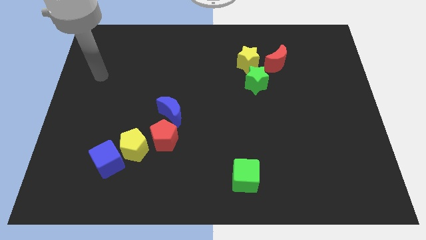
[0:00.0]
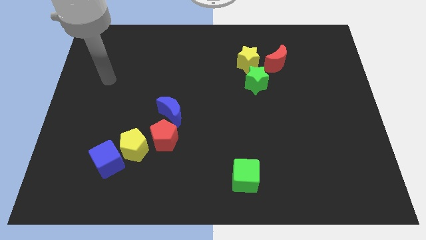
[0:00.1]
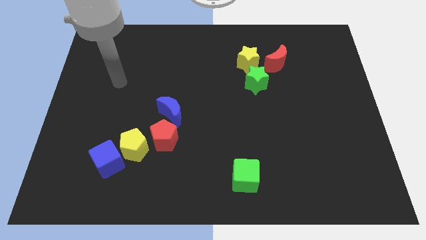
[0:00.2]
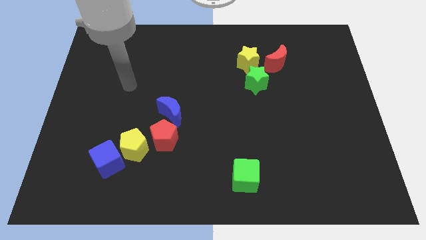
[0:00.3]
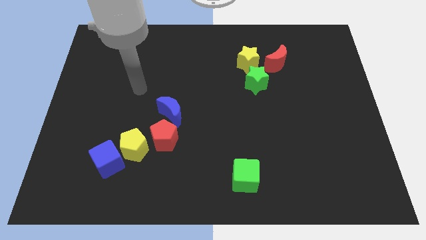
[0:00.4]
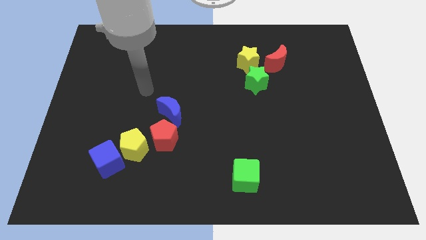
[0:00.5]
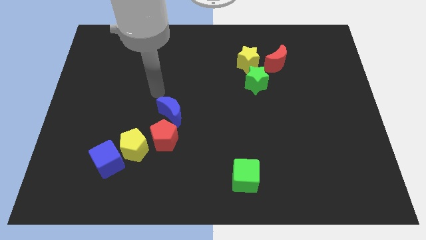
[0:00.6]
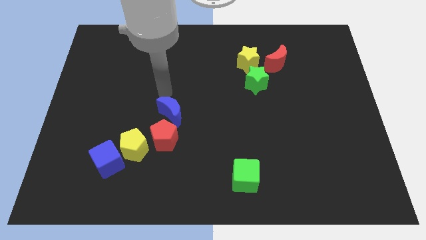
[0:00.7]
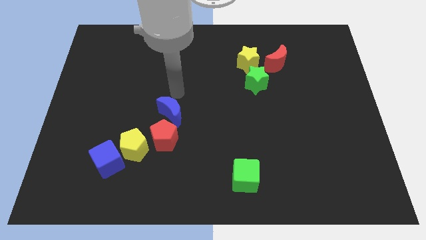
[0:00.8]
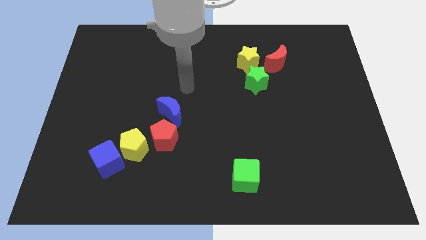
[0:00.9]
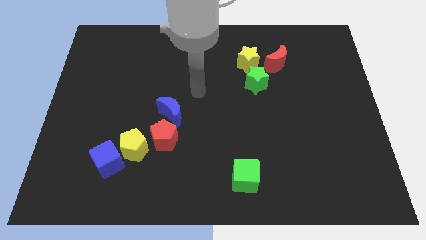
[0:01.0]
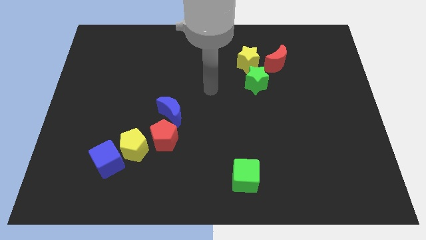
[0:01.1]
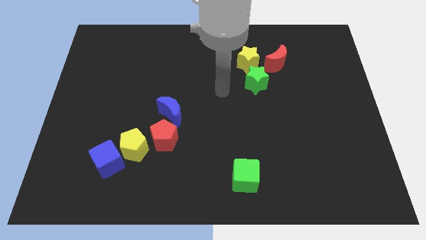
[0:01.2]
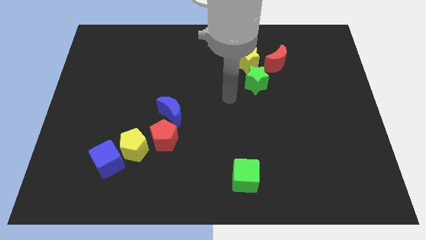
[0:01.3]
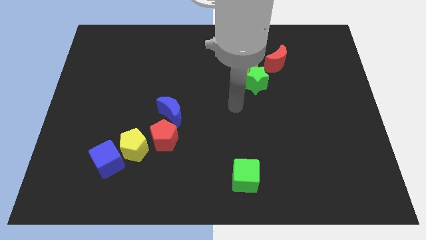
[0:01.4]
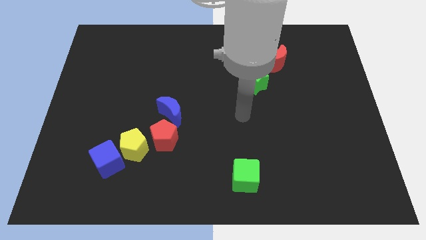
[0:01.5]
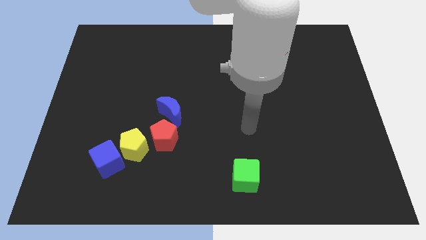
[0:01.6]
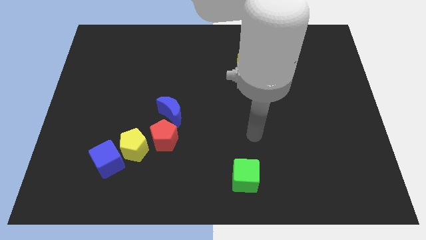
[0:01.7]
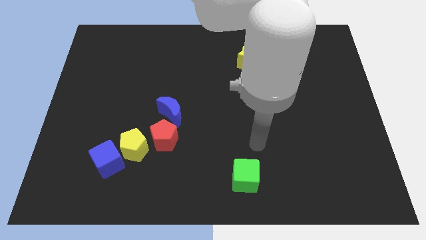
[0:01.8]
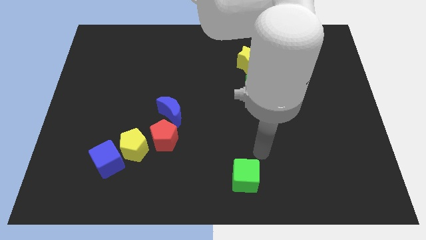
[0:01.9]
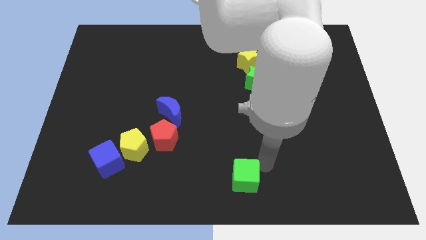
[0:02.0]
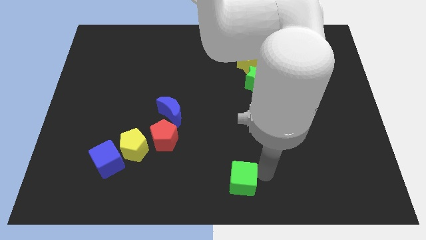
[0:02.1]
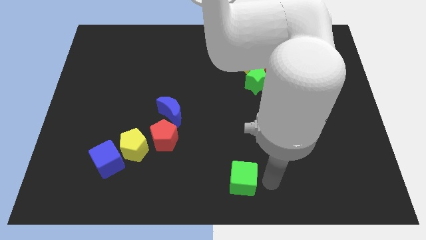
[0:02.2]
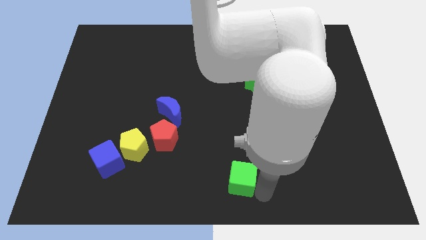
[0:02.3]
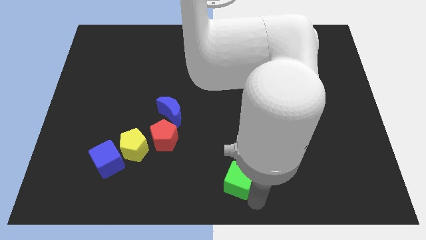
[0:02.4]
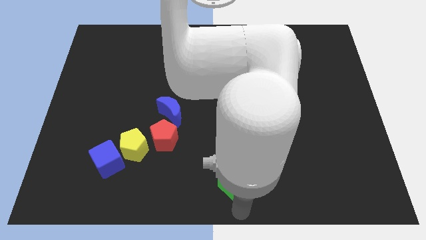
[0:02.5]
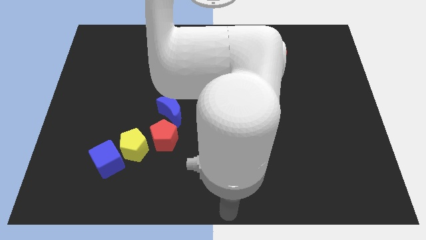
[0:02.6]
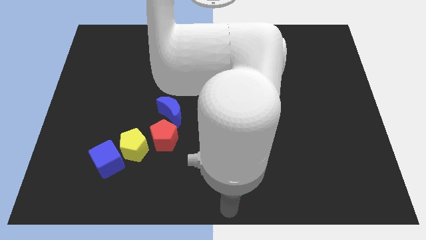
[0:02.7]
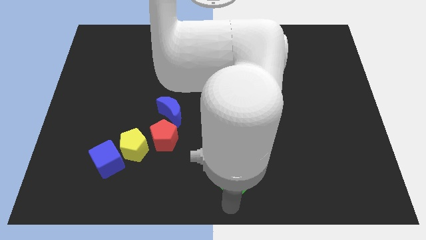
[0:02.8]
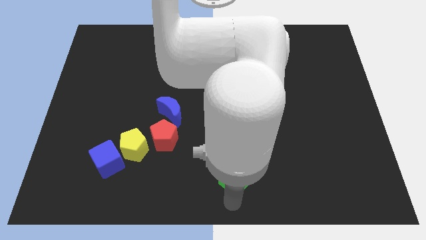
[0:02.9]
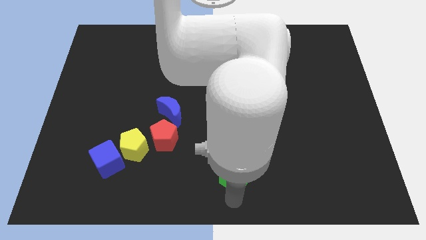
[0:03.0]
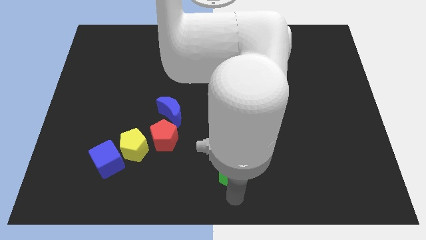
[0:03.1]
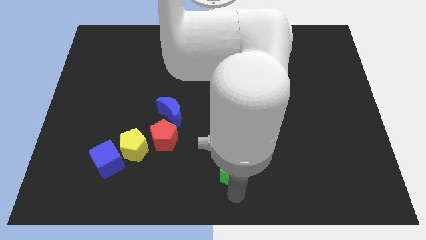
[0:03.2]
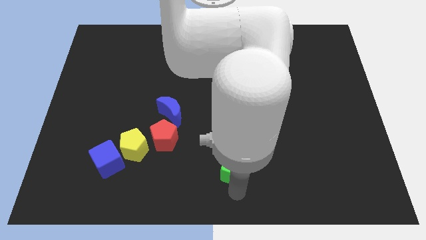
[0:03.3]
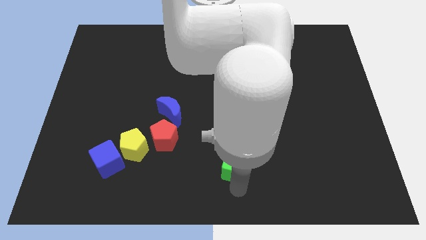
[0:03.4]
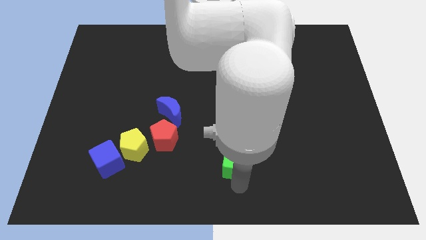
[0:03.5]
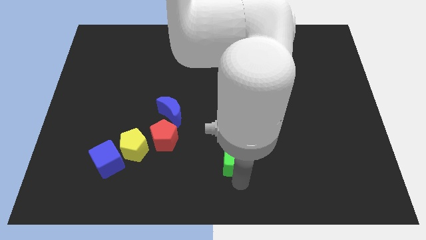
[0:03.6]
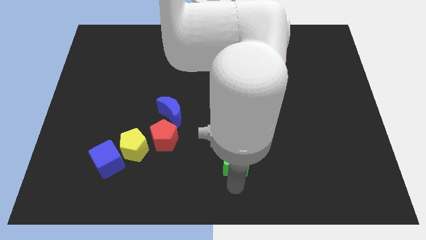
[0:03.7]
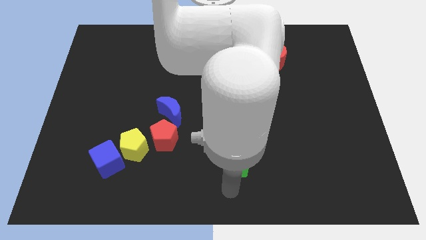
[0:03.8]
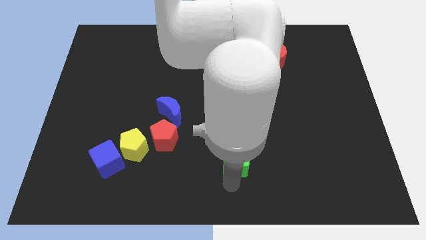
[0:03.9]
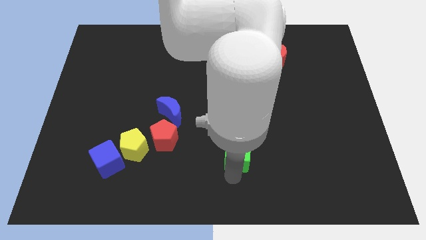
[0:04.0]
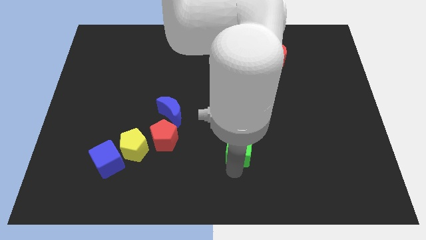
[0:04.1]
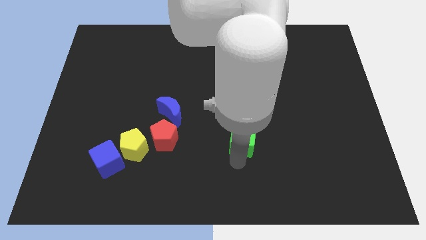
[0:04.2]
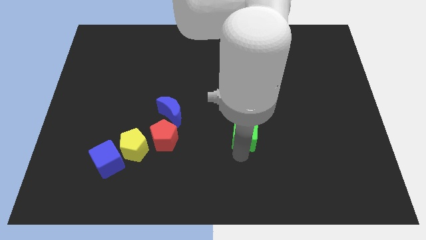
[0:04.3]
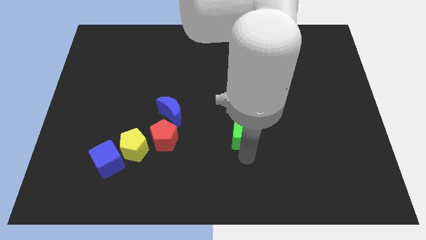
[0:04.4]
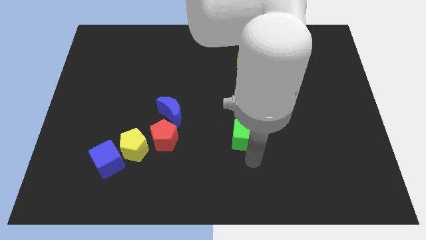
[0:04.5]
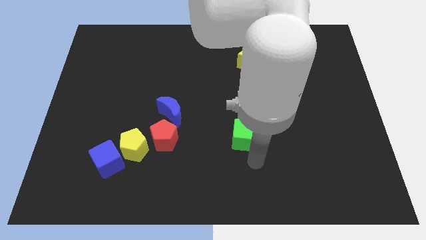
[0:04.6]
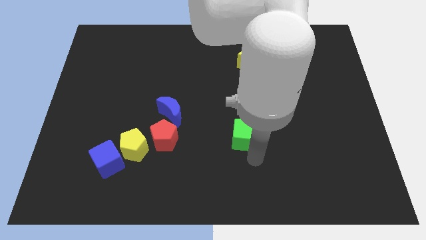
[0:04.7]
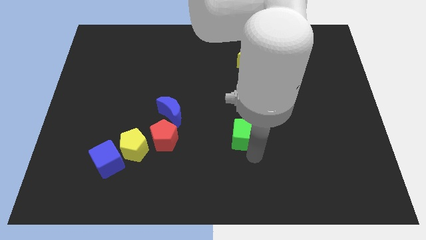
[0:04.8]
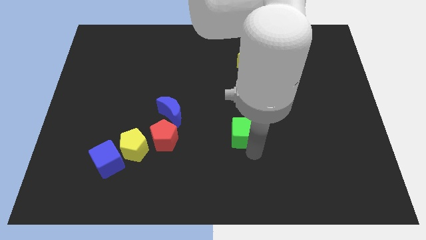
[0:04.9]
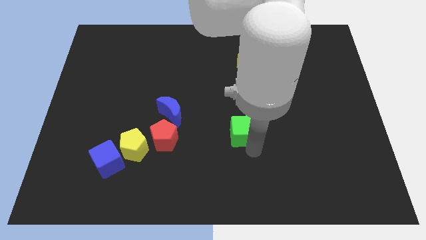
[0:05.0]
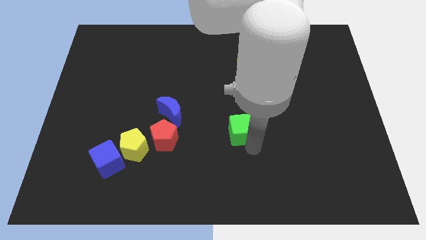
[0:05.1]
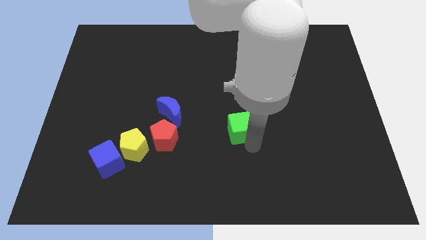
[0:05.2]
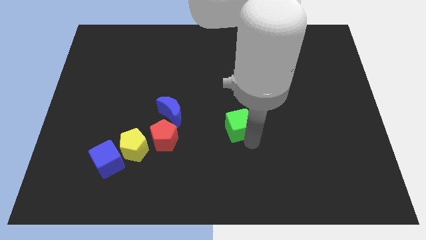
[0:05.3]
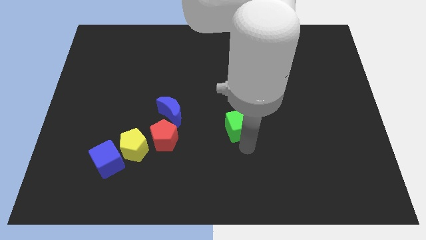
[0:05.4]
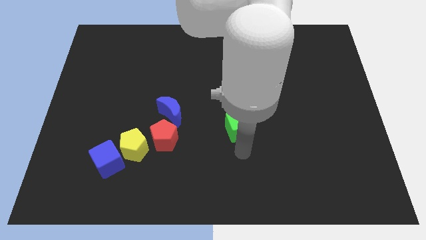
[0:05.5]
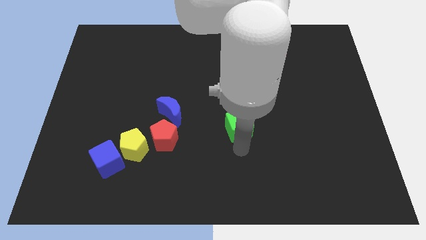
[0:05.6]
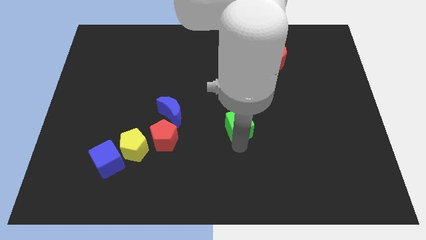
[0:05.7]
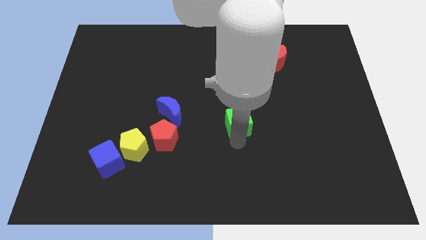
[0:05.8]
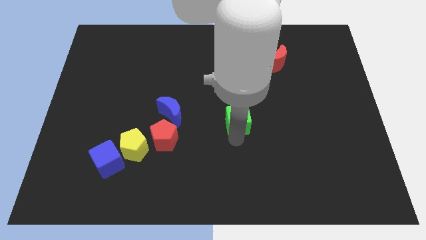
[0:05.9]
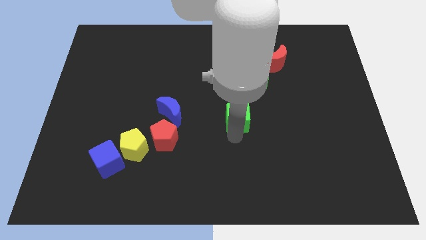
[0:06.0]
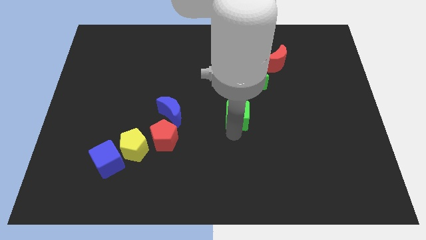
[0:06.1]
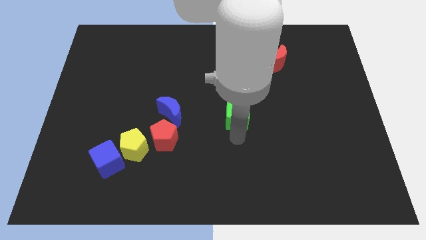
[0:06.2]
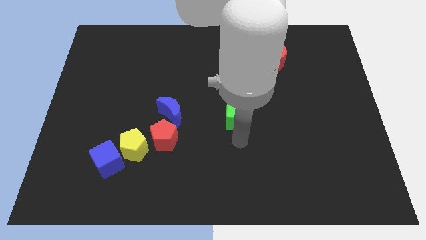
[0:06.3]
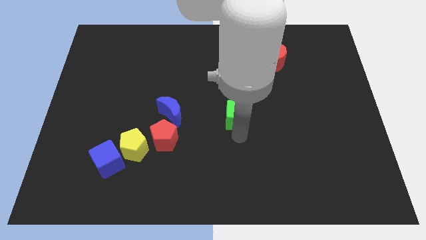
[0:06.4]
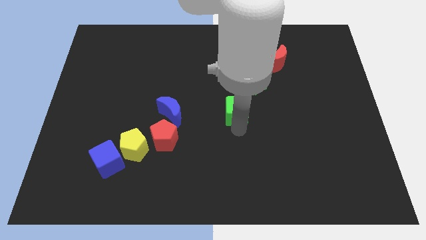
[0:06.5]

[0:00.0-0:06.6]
slide the green cube diagonally down and to the left of the green star

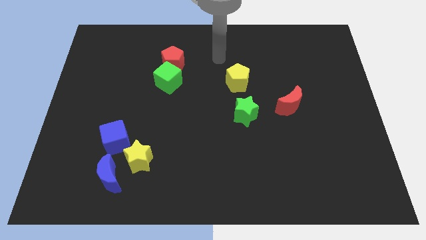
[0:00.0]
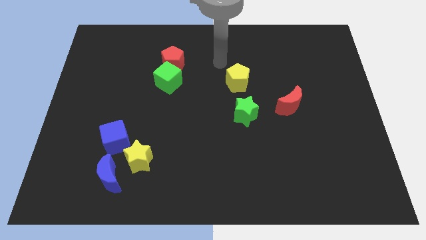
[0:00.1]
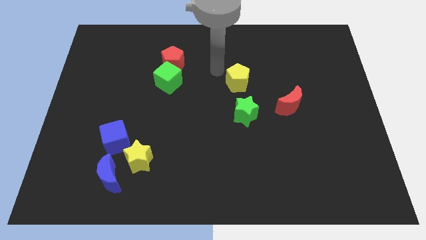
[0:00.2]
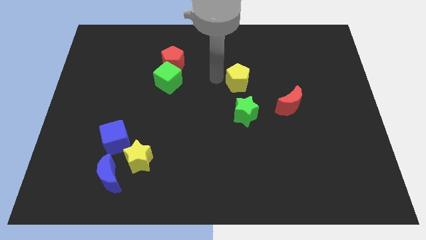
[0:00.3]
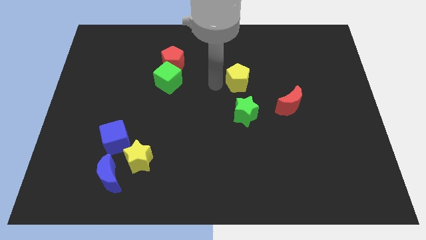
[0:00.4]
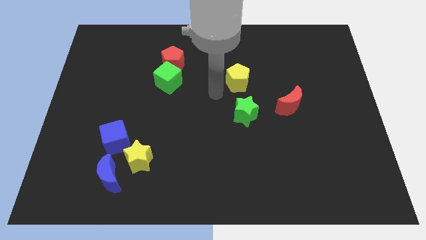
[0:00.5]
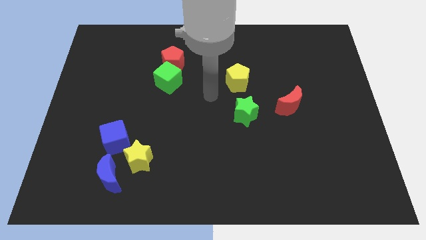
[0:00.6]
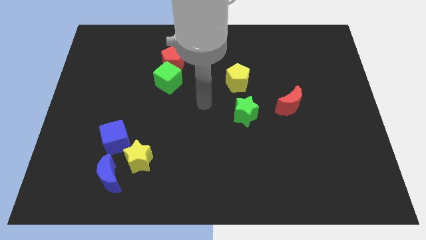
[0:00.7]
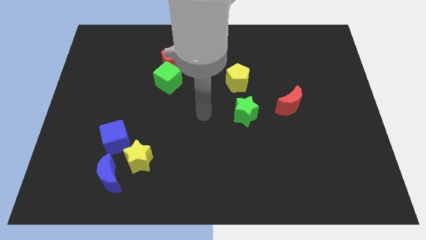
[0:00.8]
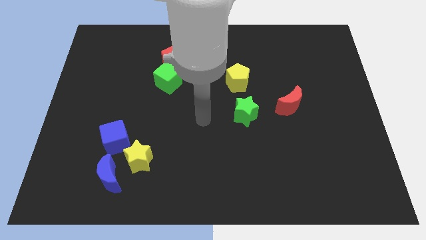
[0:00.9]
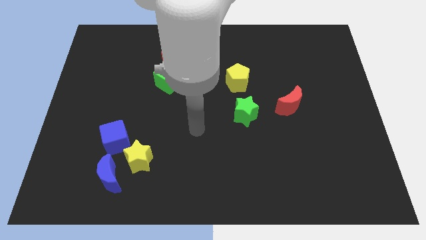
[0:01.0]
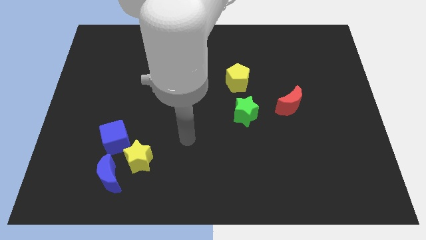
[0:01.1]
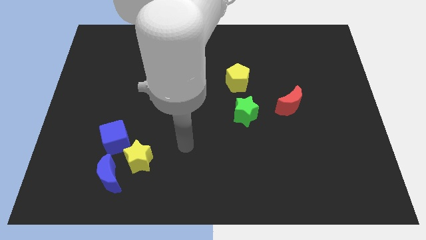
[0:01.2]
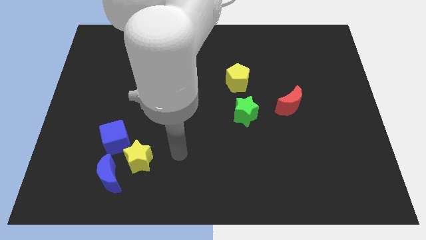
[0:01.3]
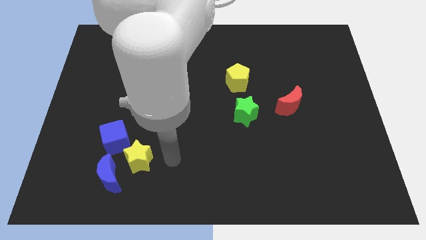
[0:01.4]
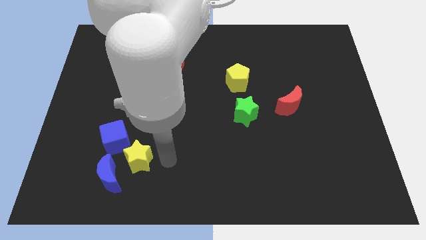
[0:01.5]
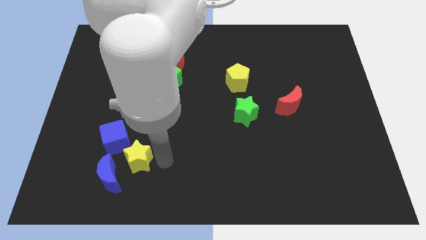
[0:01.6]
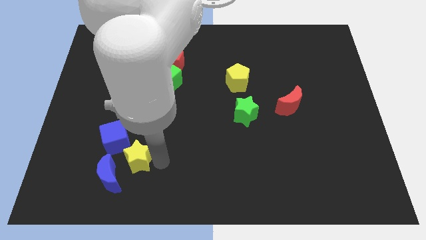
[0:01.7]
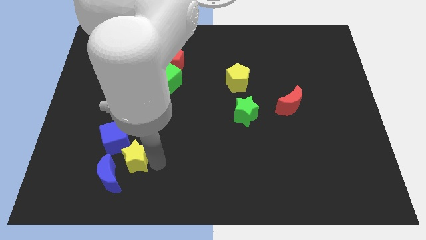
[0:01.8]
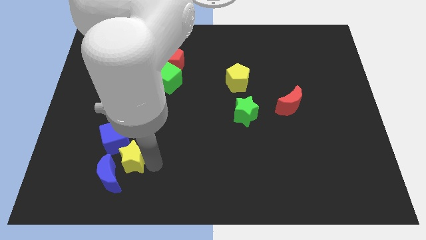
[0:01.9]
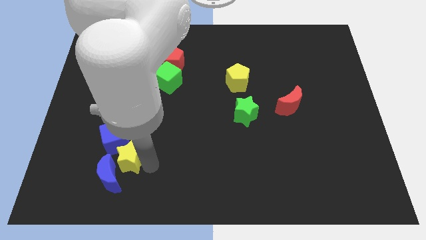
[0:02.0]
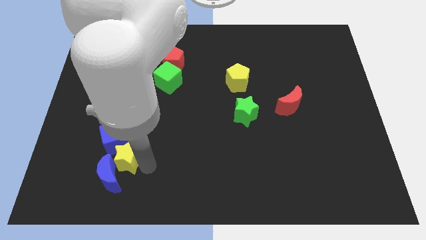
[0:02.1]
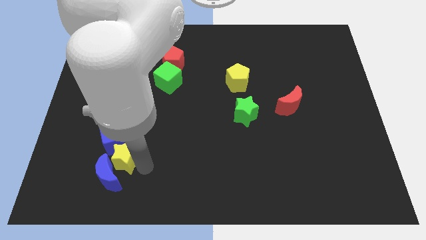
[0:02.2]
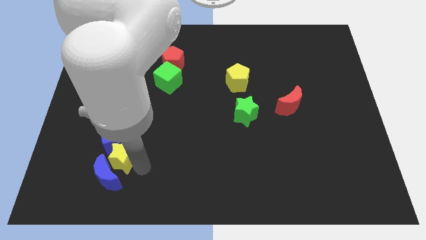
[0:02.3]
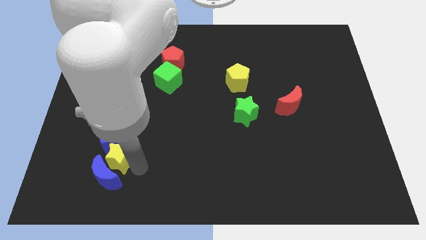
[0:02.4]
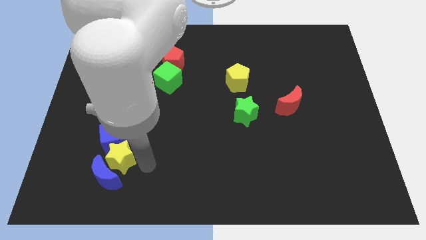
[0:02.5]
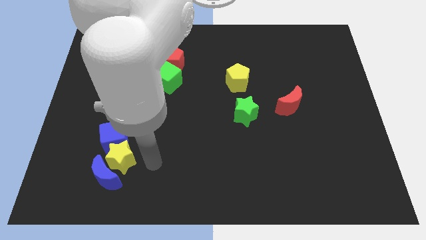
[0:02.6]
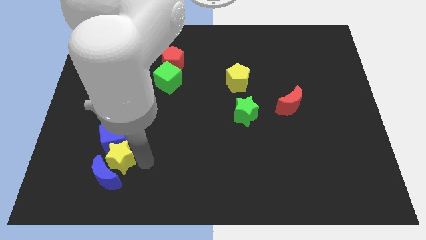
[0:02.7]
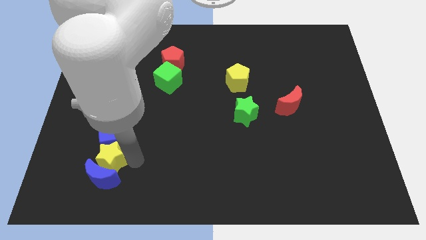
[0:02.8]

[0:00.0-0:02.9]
push the yellow star diagonally up and to the left of the blue moon
